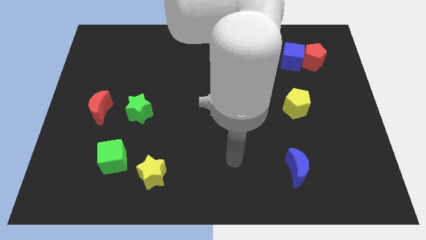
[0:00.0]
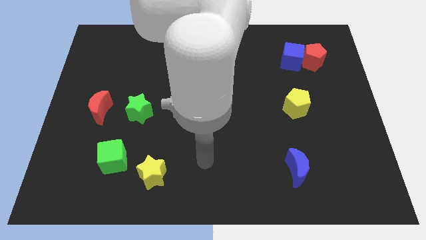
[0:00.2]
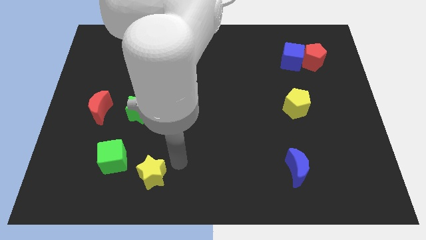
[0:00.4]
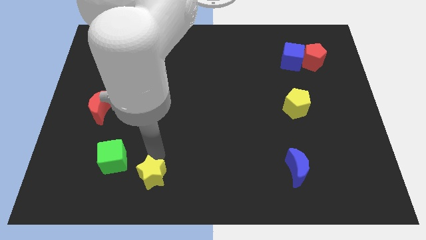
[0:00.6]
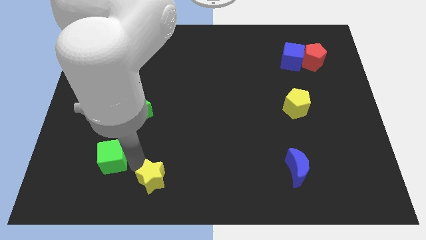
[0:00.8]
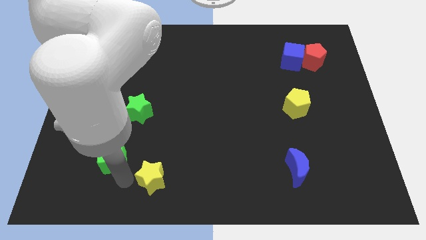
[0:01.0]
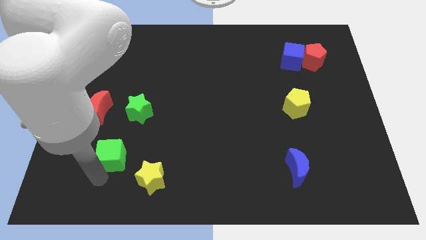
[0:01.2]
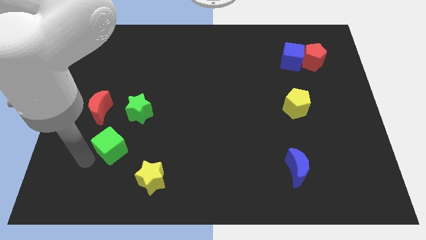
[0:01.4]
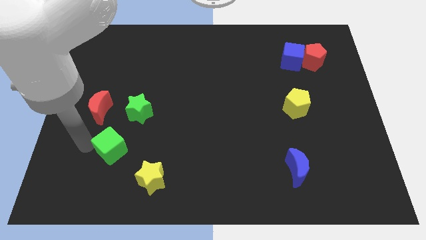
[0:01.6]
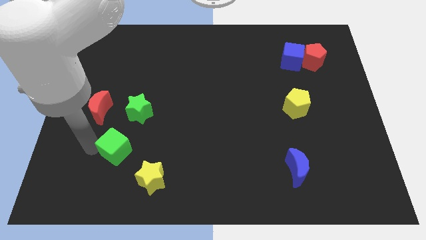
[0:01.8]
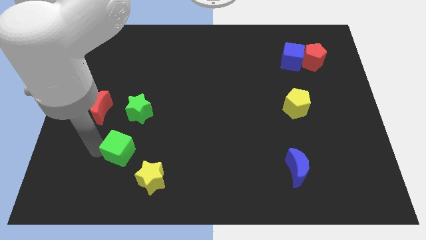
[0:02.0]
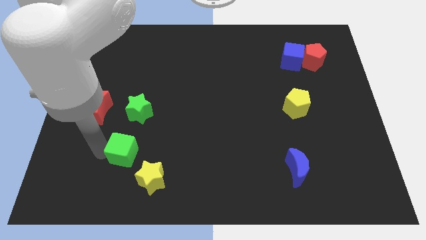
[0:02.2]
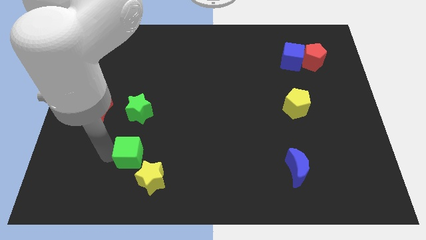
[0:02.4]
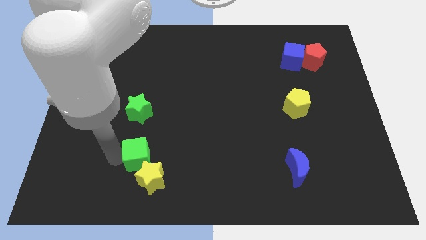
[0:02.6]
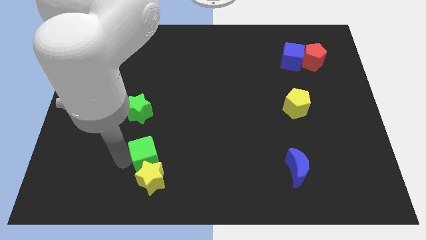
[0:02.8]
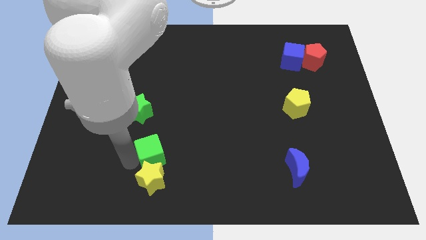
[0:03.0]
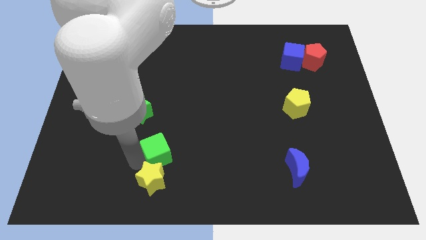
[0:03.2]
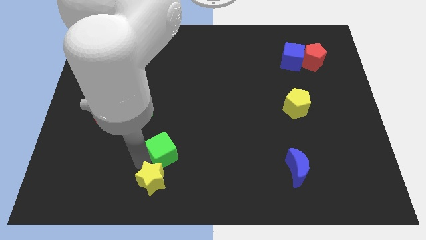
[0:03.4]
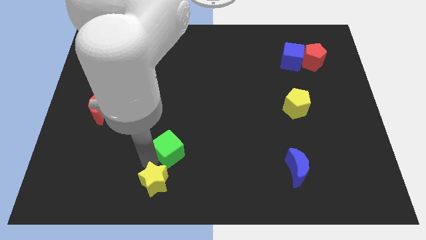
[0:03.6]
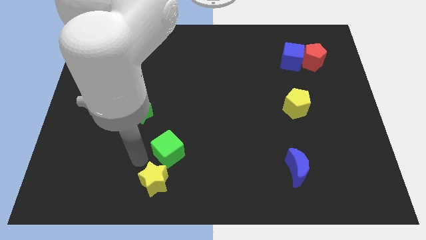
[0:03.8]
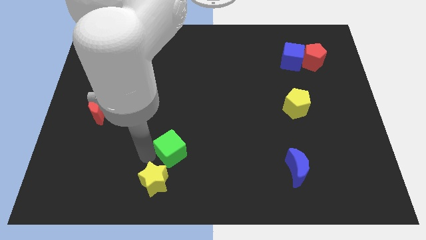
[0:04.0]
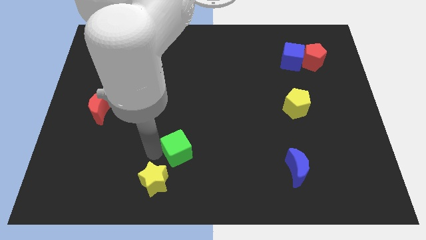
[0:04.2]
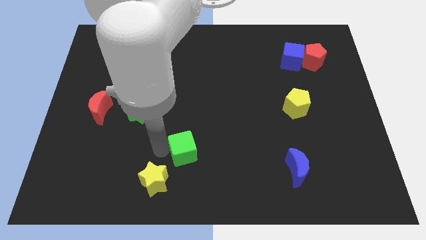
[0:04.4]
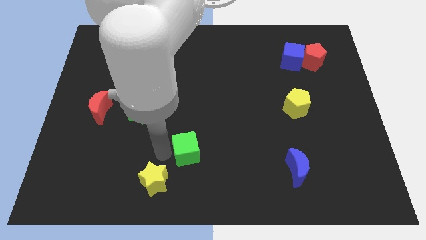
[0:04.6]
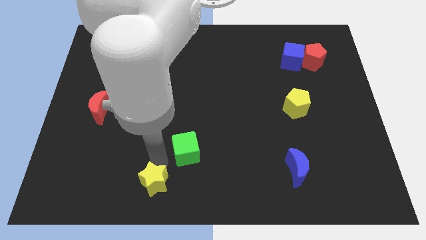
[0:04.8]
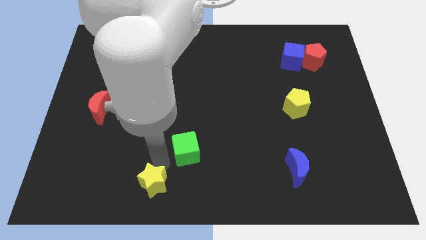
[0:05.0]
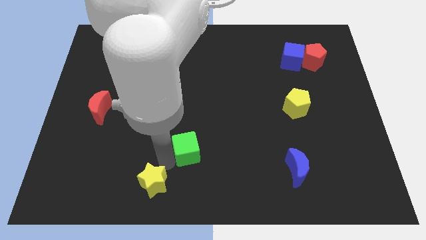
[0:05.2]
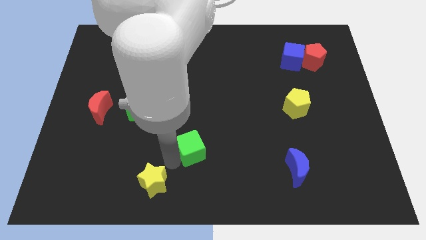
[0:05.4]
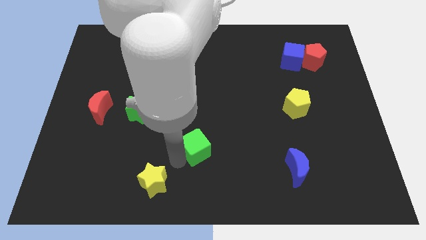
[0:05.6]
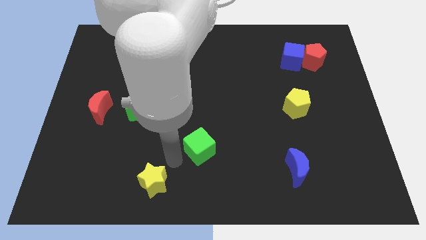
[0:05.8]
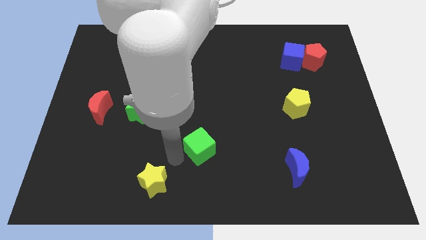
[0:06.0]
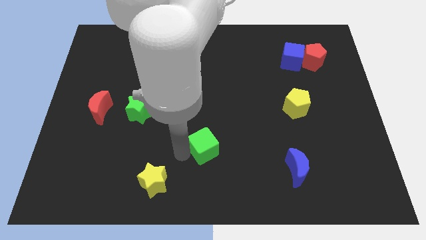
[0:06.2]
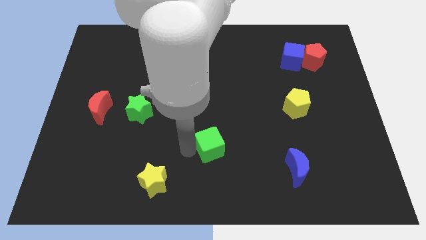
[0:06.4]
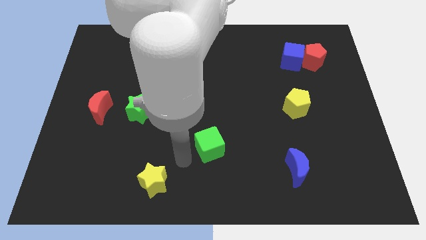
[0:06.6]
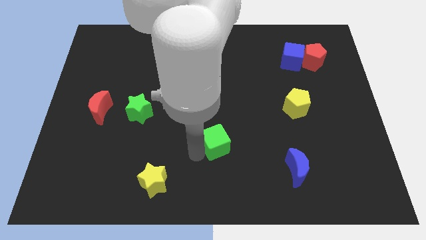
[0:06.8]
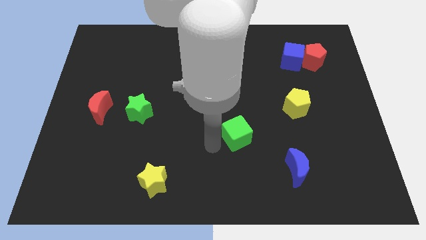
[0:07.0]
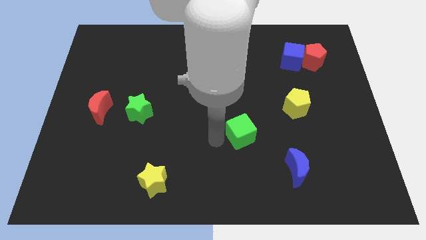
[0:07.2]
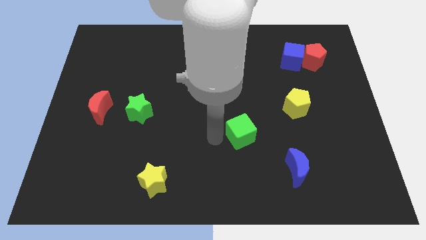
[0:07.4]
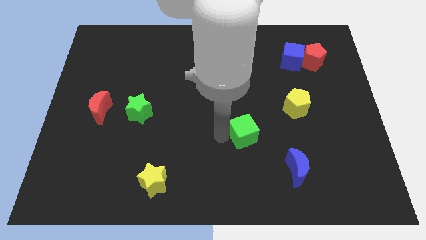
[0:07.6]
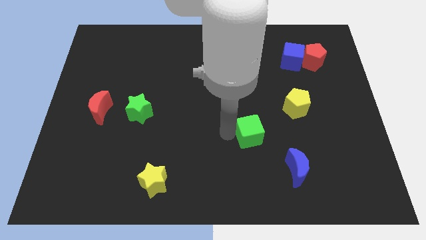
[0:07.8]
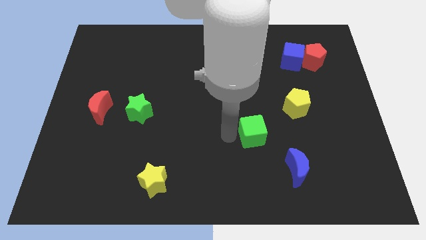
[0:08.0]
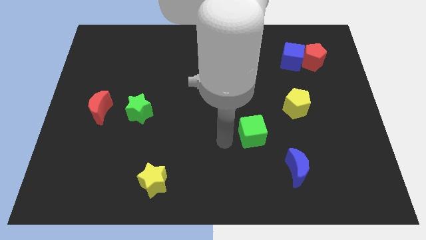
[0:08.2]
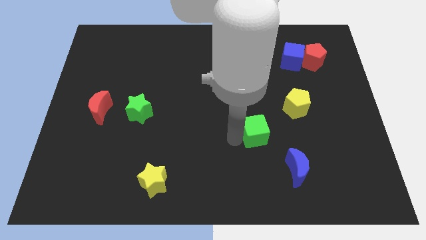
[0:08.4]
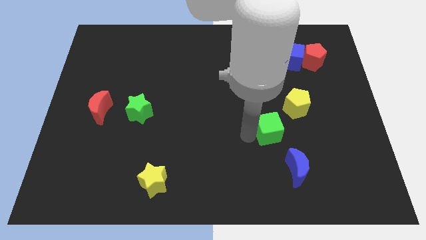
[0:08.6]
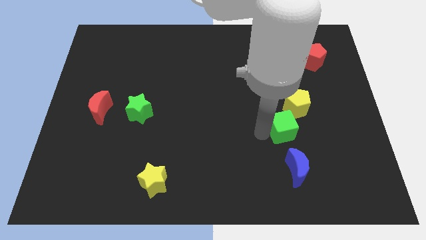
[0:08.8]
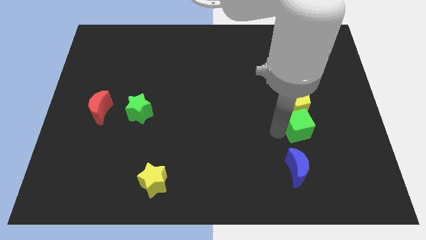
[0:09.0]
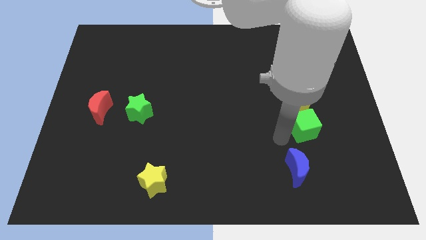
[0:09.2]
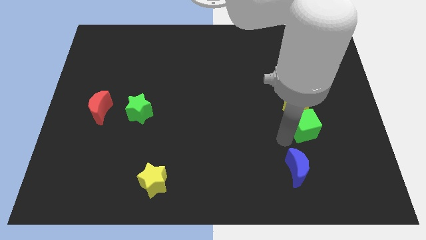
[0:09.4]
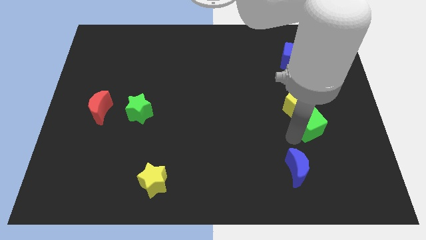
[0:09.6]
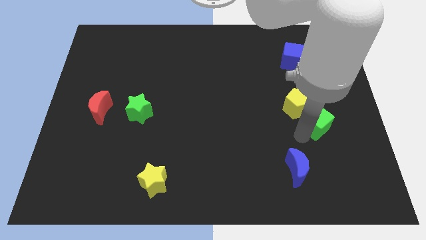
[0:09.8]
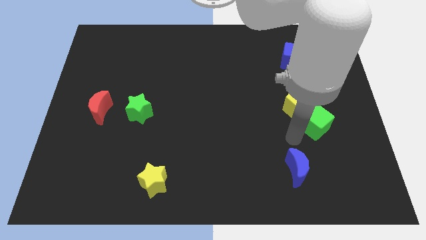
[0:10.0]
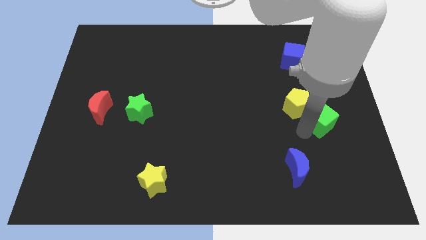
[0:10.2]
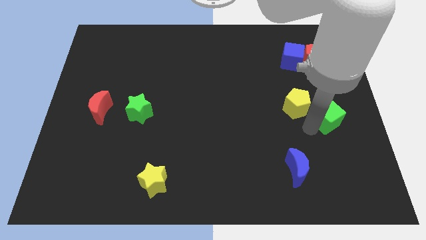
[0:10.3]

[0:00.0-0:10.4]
slide the green cube to the right side

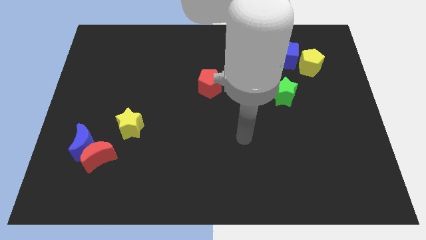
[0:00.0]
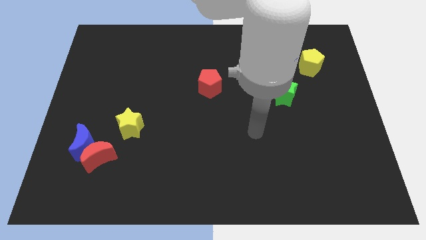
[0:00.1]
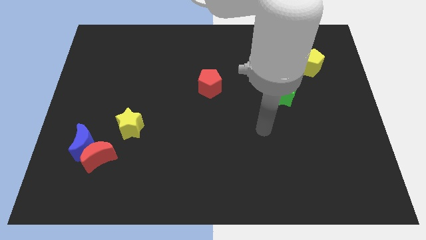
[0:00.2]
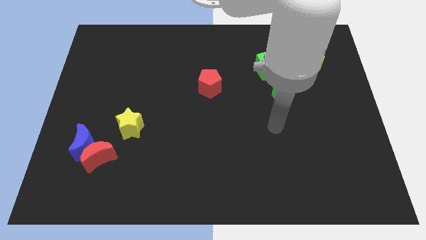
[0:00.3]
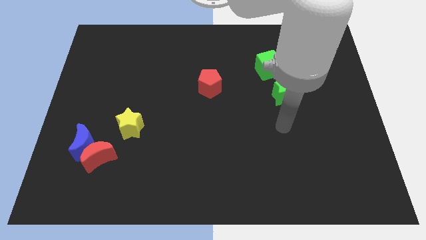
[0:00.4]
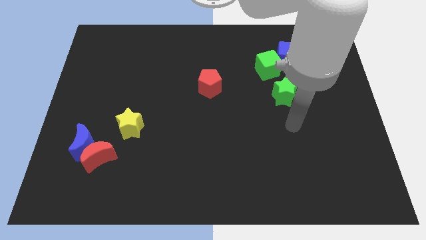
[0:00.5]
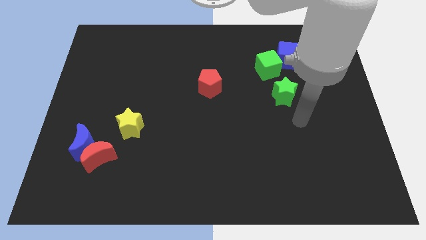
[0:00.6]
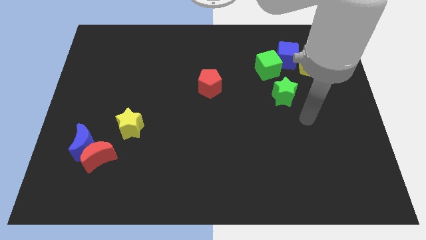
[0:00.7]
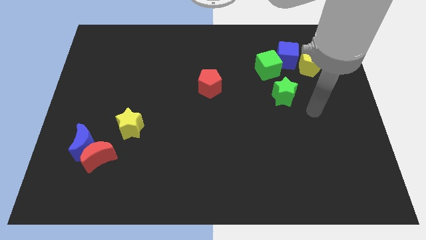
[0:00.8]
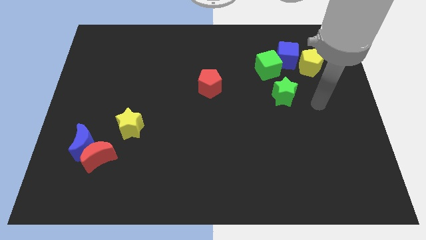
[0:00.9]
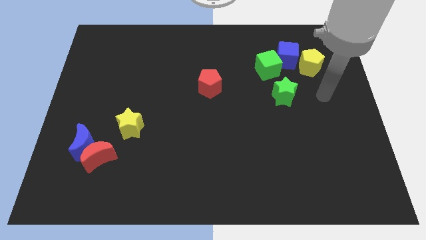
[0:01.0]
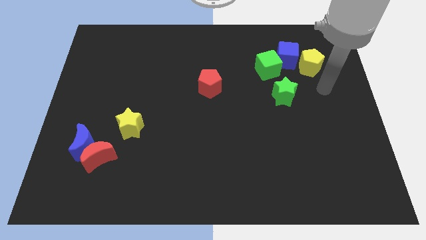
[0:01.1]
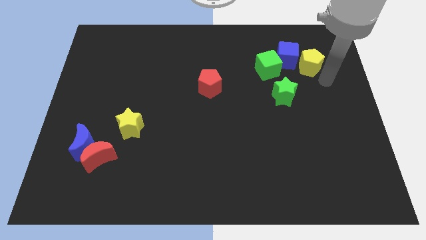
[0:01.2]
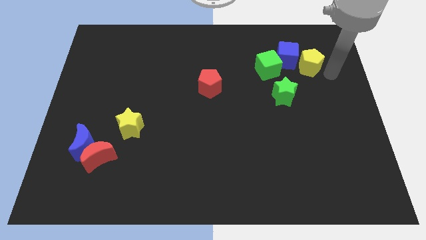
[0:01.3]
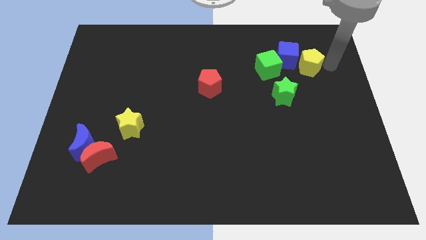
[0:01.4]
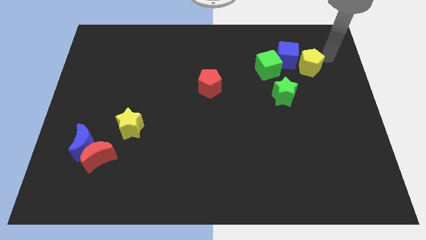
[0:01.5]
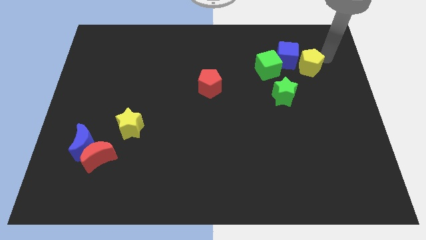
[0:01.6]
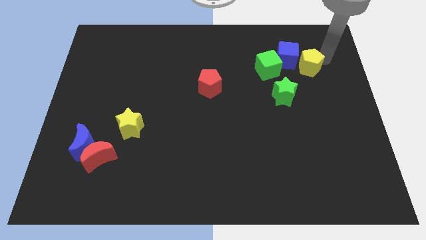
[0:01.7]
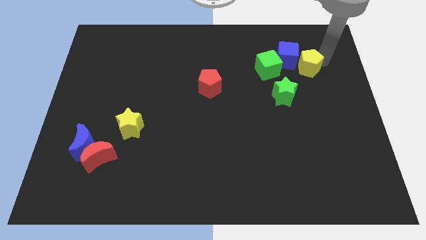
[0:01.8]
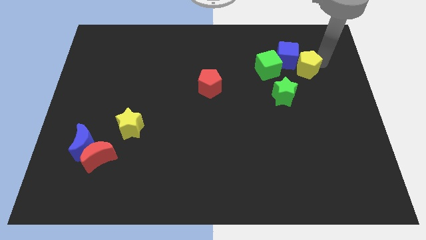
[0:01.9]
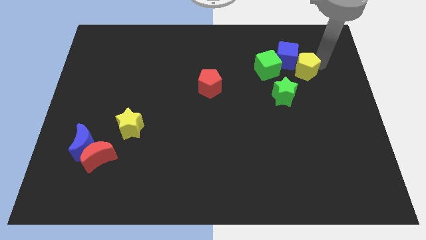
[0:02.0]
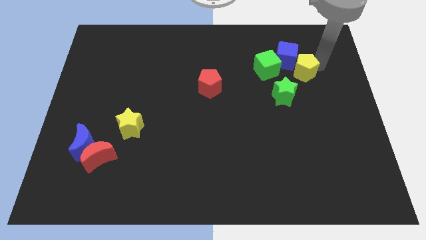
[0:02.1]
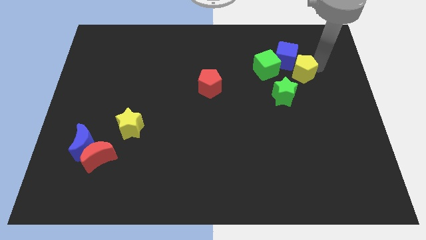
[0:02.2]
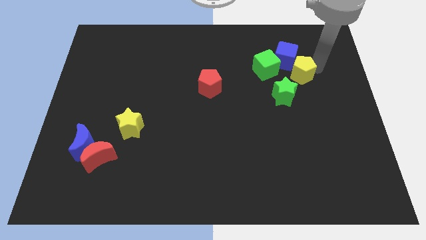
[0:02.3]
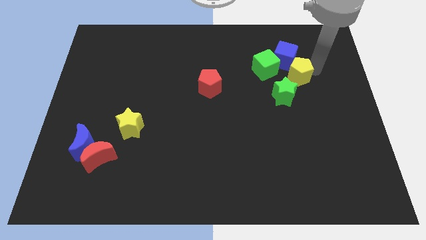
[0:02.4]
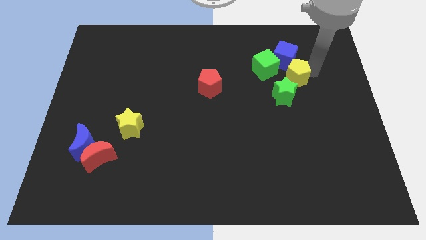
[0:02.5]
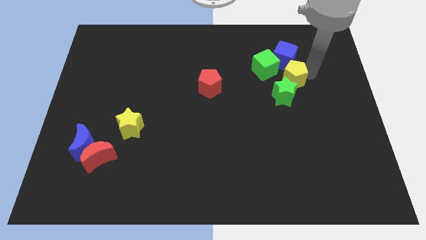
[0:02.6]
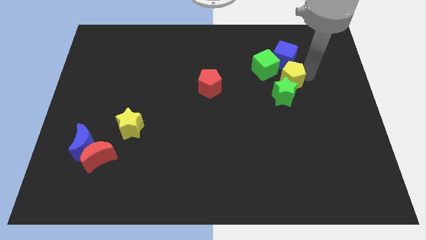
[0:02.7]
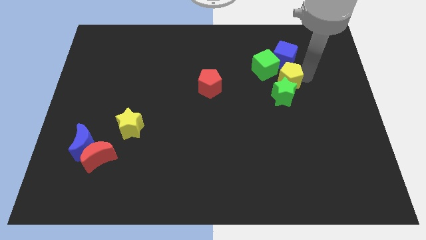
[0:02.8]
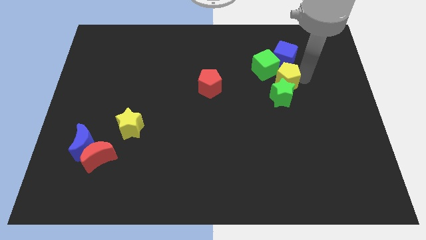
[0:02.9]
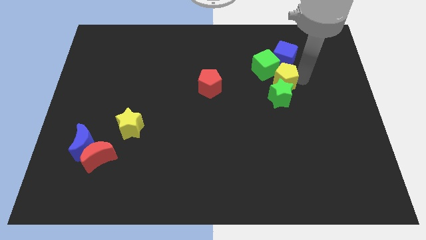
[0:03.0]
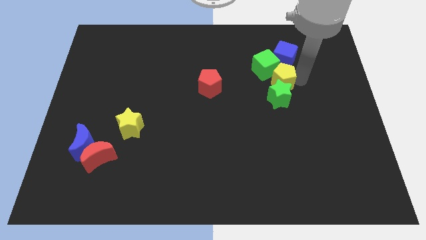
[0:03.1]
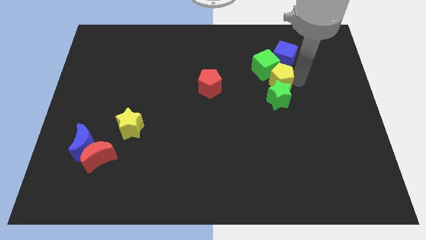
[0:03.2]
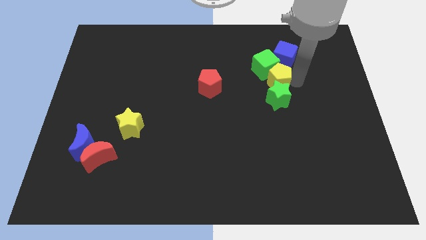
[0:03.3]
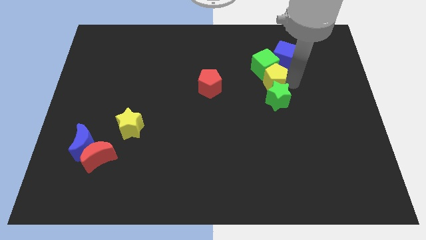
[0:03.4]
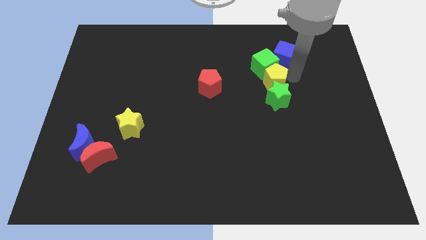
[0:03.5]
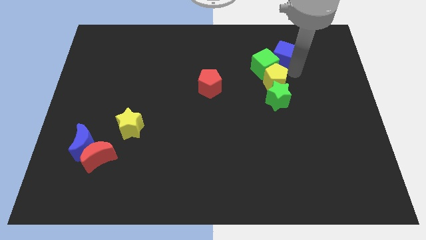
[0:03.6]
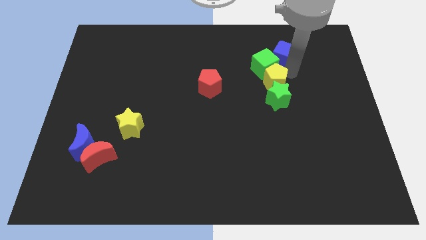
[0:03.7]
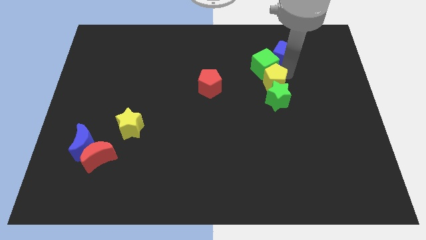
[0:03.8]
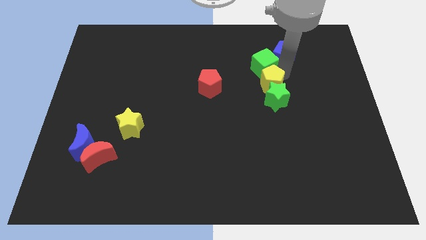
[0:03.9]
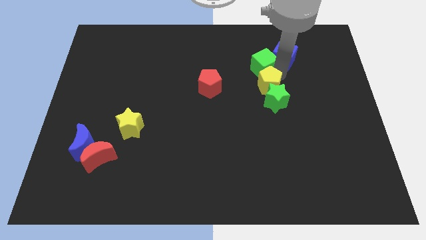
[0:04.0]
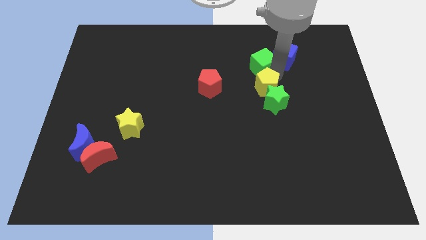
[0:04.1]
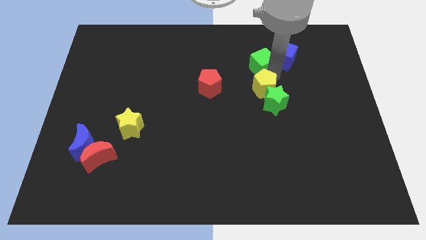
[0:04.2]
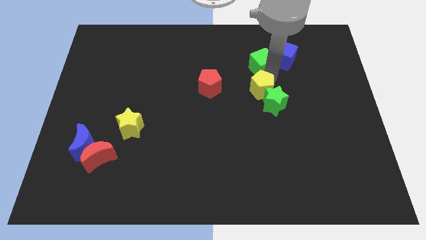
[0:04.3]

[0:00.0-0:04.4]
slide the yellow pentagon to the center of the board
